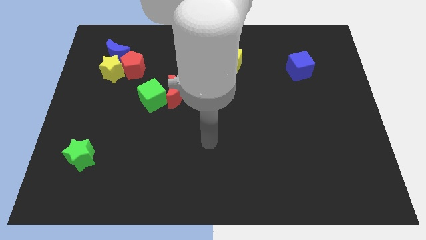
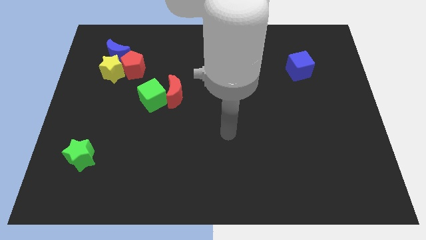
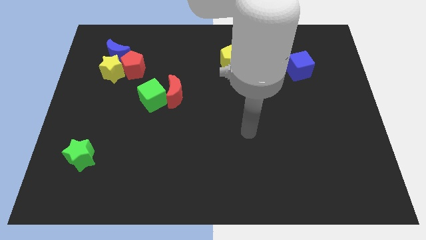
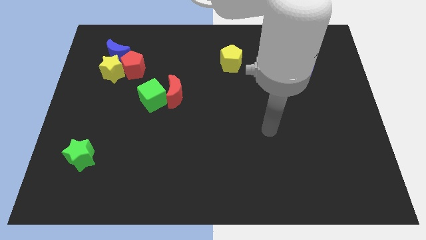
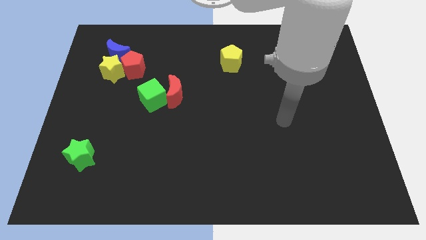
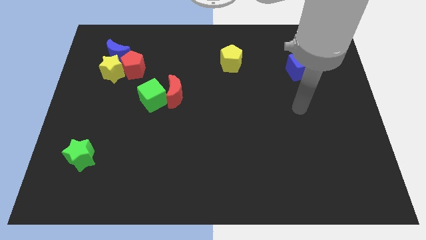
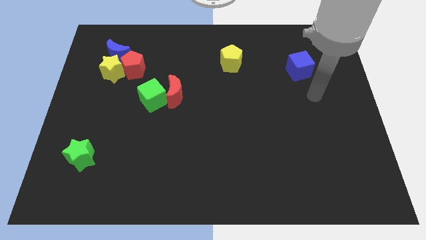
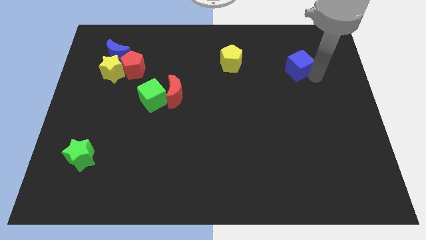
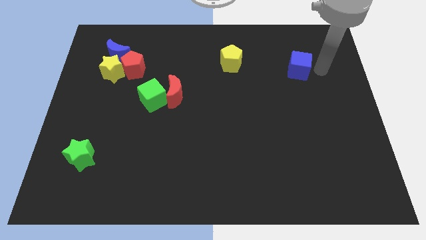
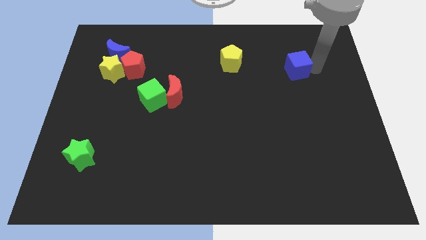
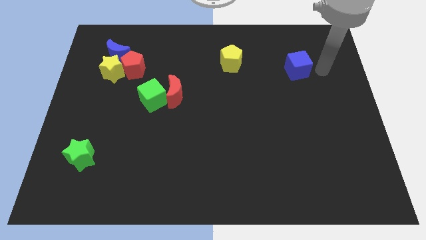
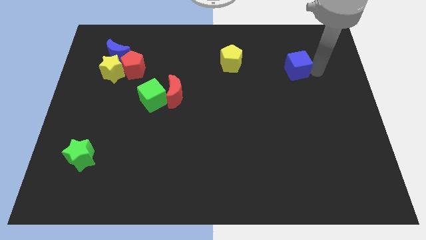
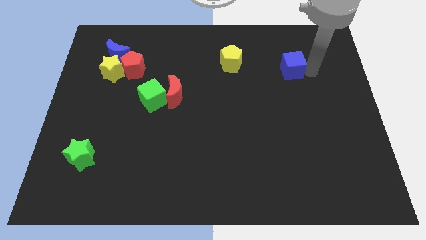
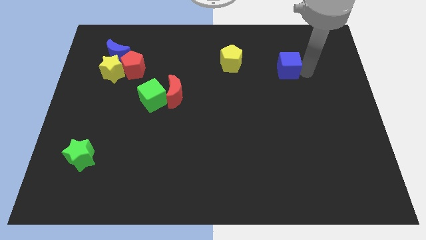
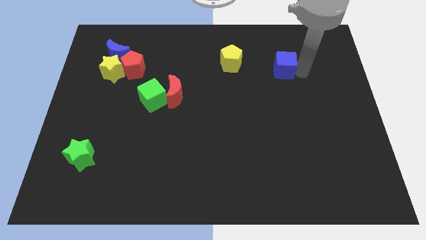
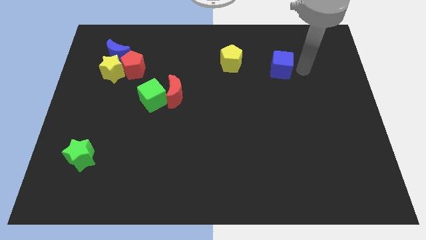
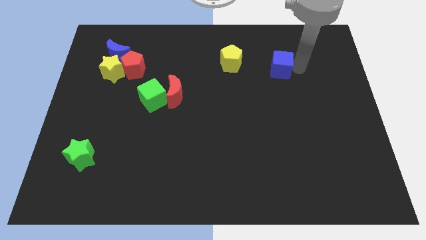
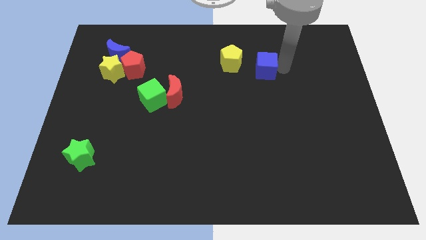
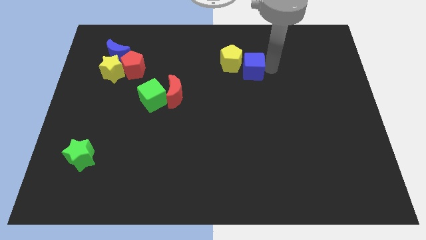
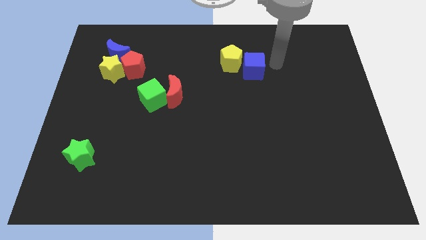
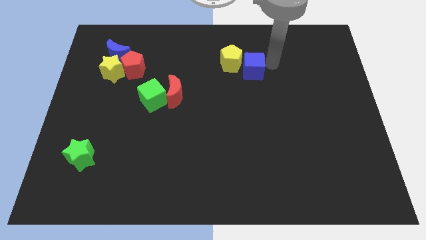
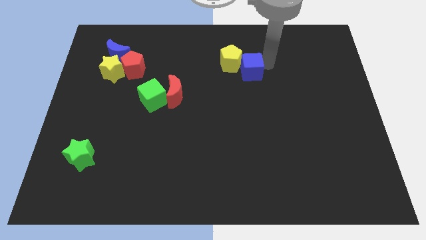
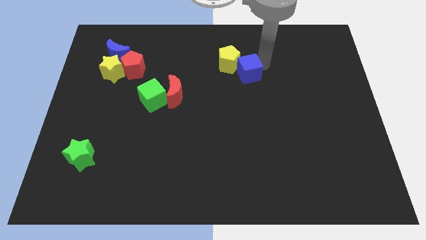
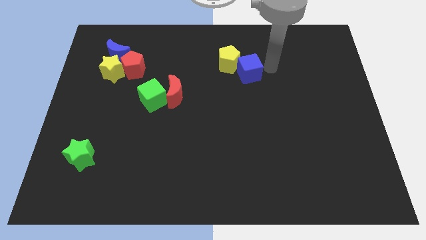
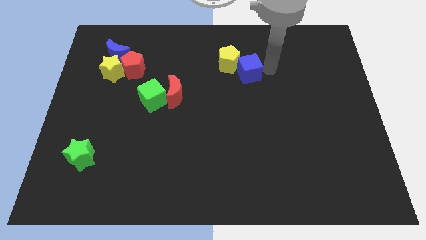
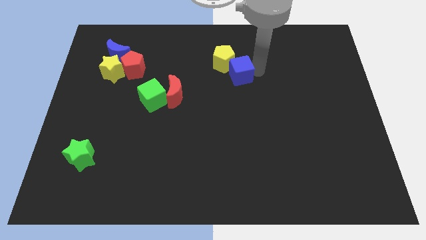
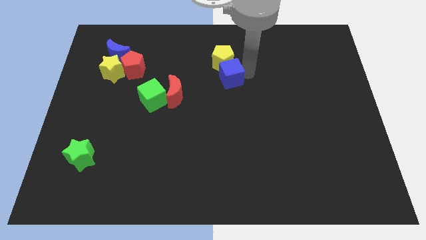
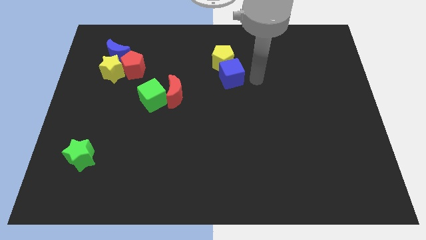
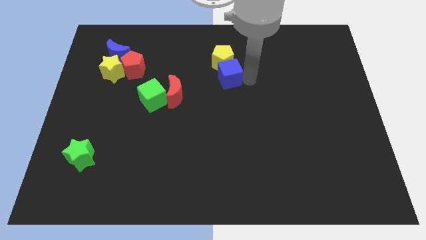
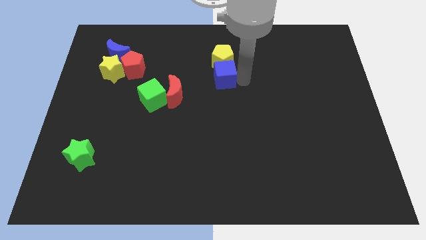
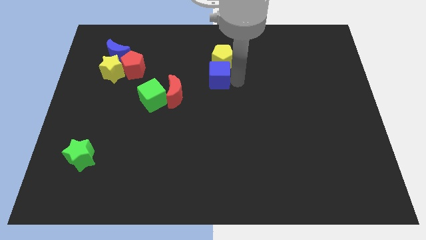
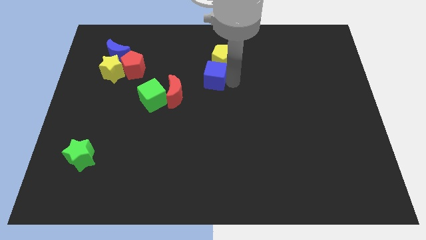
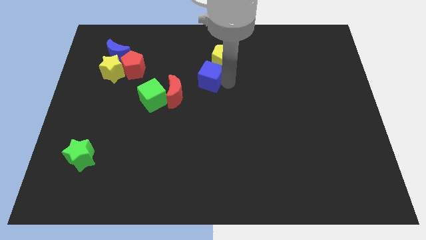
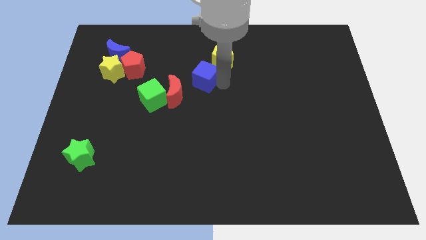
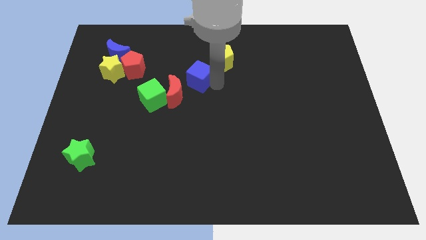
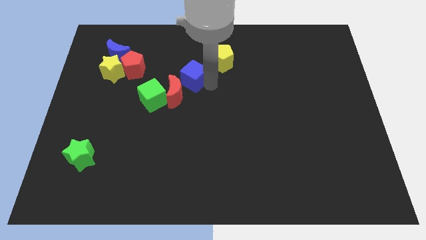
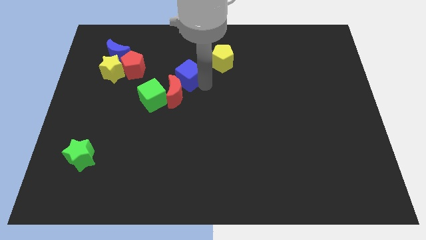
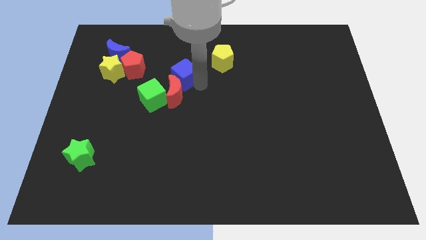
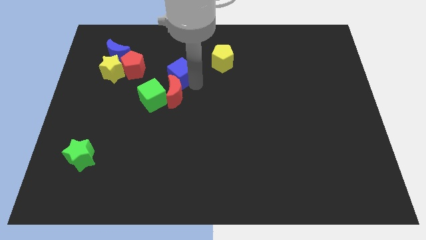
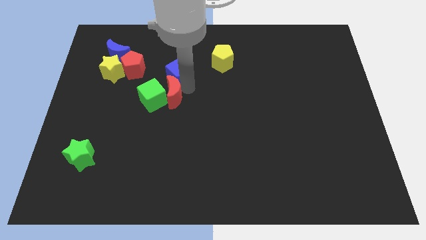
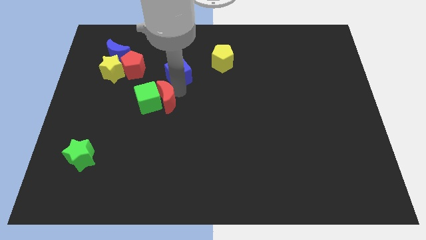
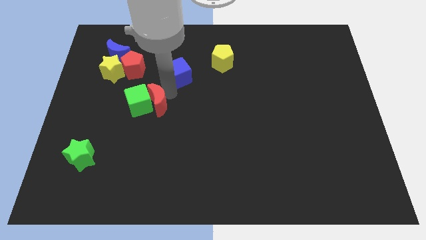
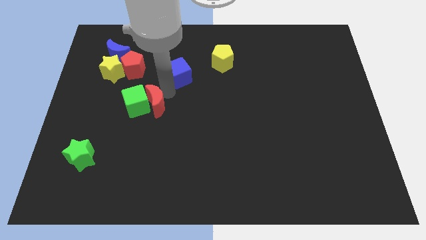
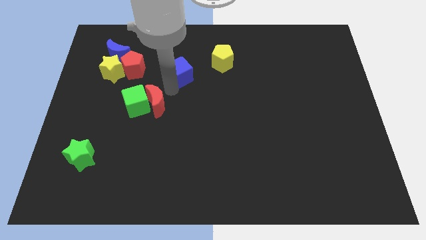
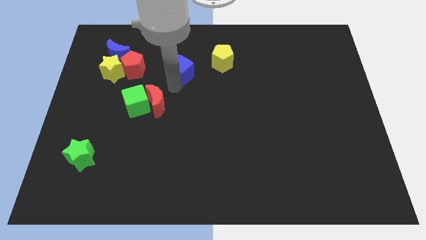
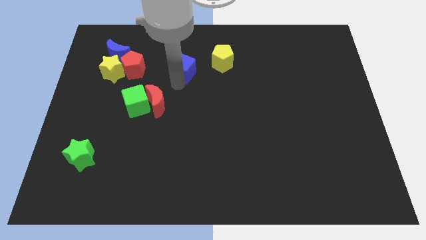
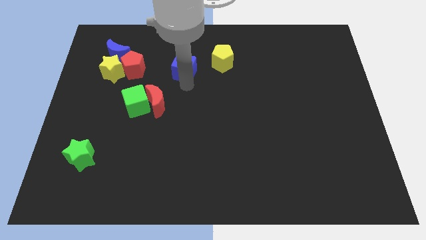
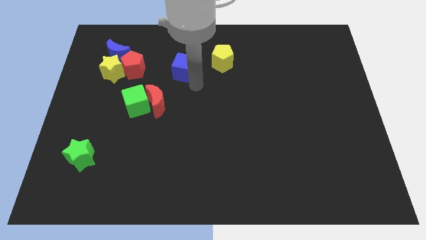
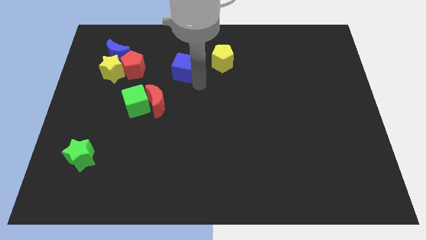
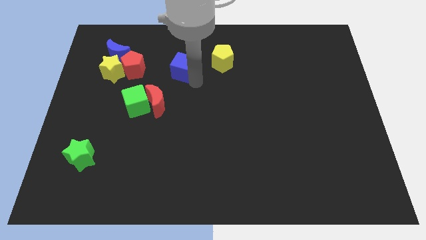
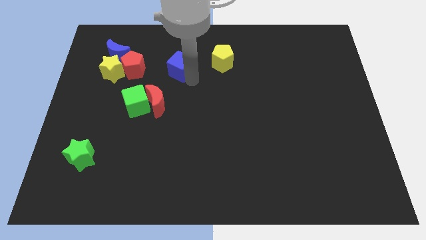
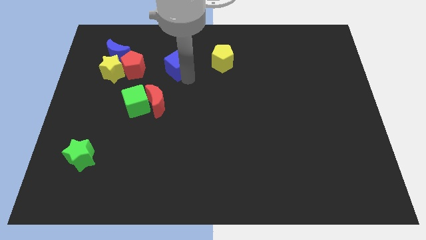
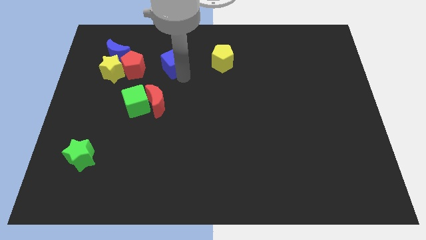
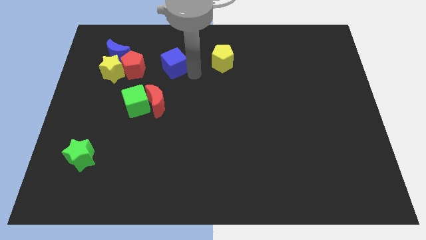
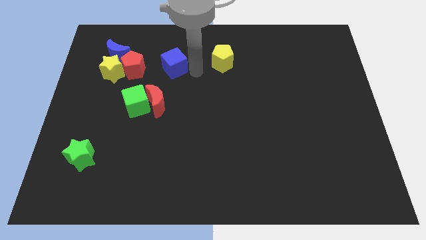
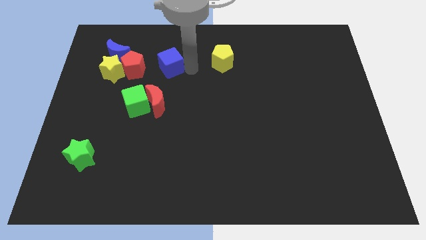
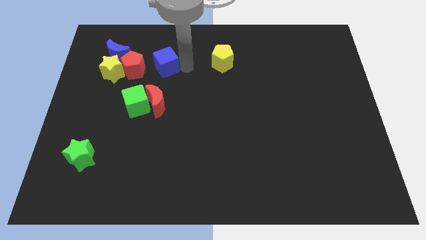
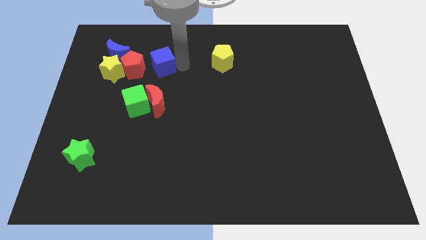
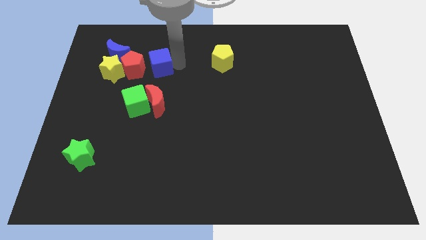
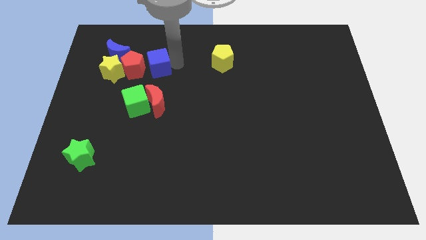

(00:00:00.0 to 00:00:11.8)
push the blue cube close to the red pentagon
